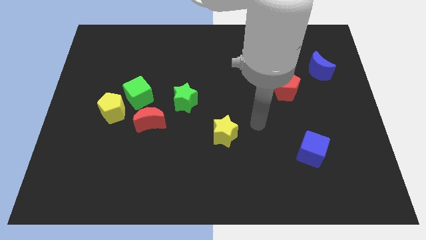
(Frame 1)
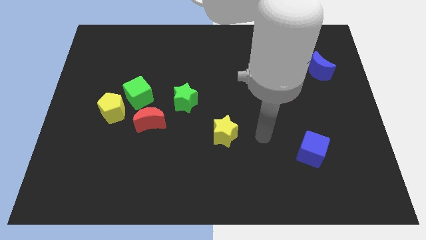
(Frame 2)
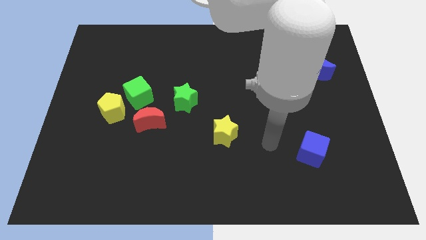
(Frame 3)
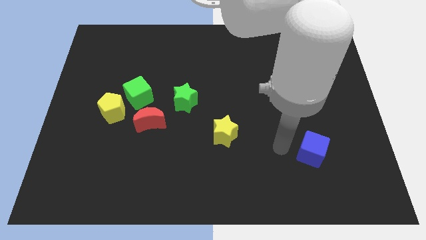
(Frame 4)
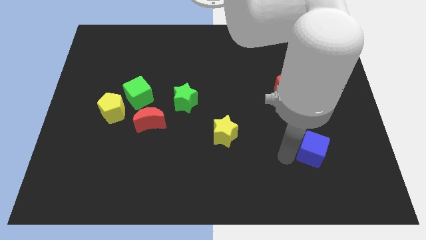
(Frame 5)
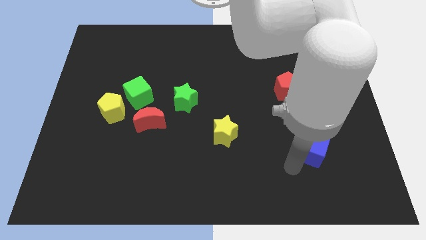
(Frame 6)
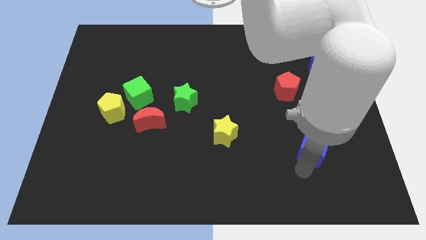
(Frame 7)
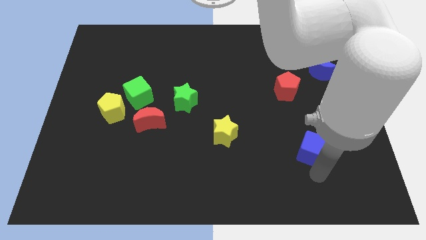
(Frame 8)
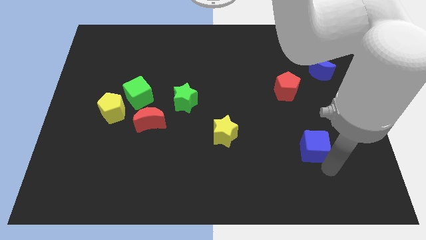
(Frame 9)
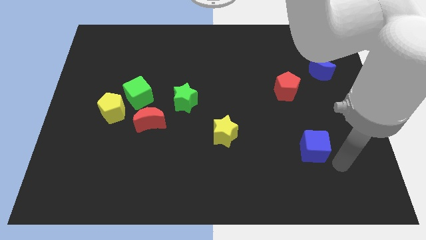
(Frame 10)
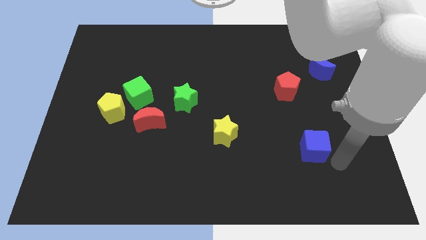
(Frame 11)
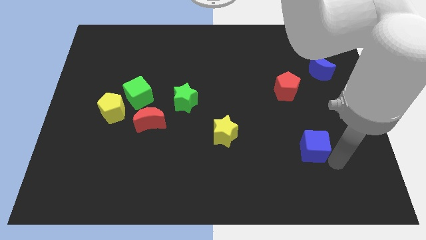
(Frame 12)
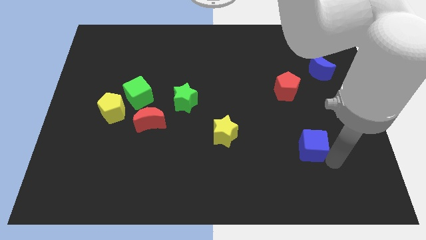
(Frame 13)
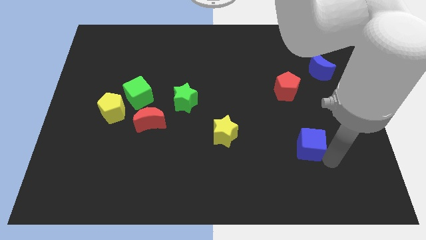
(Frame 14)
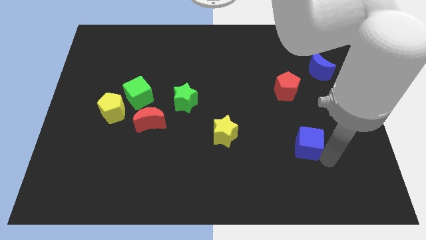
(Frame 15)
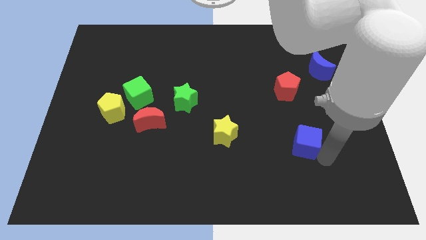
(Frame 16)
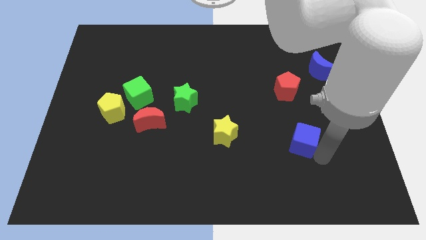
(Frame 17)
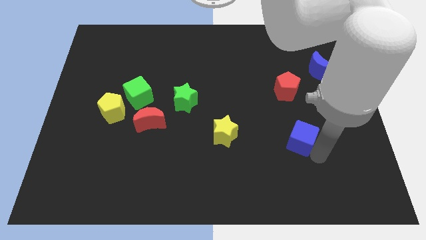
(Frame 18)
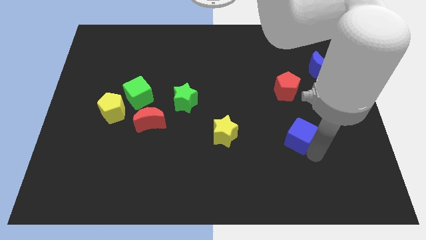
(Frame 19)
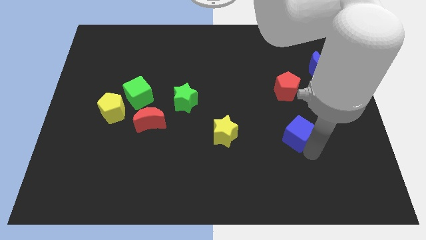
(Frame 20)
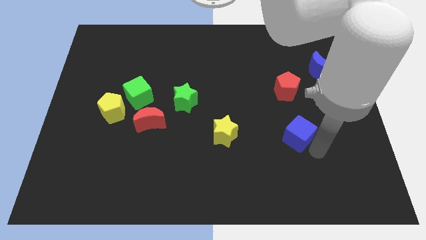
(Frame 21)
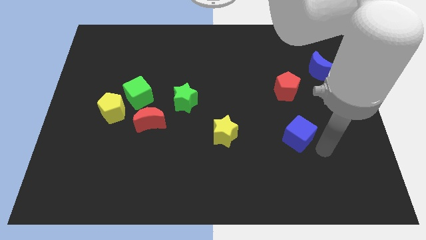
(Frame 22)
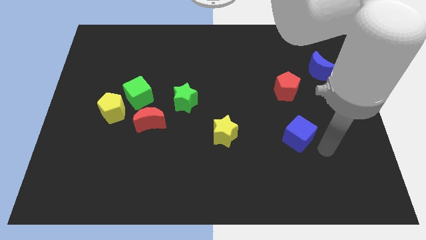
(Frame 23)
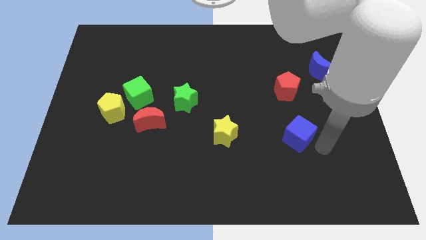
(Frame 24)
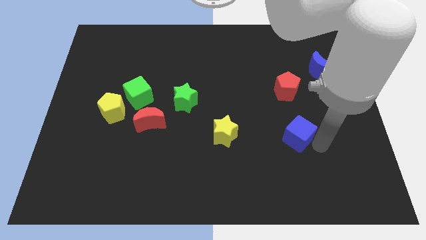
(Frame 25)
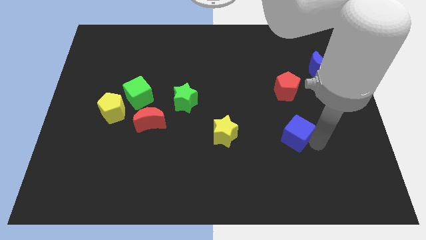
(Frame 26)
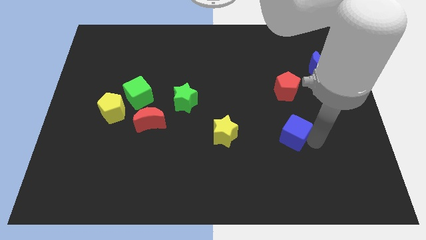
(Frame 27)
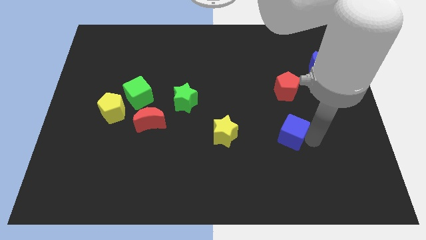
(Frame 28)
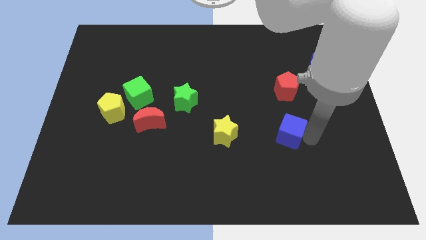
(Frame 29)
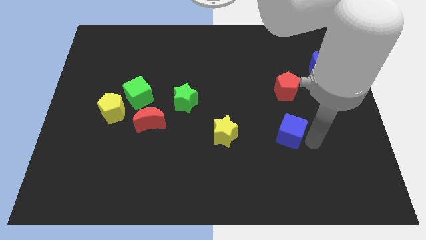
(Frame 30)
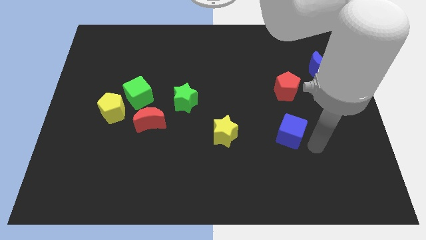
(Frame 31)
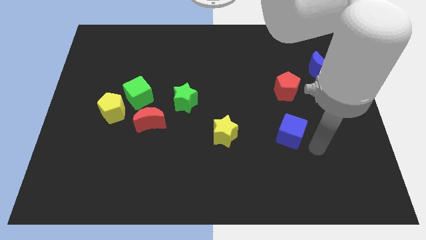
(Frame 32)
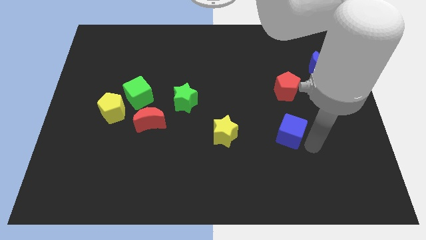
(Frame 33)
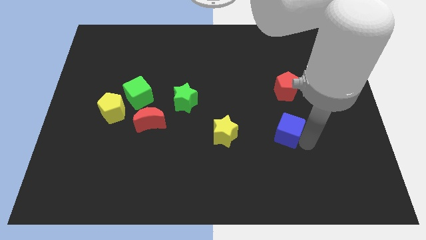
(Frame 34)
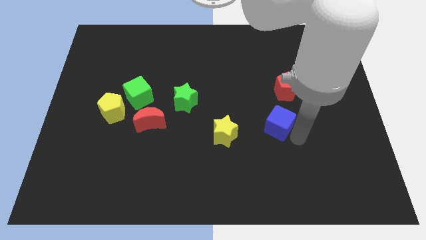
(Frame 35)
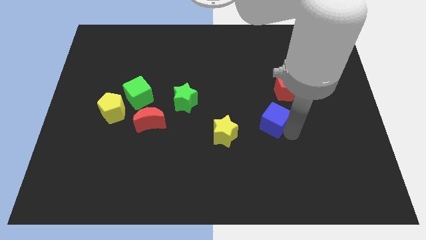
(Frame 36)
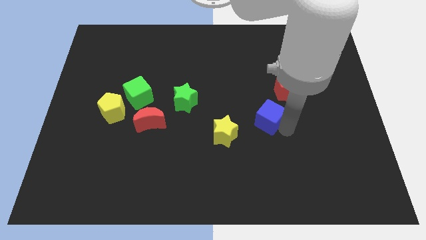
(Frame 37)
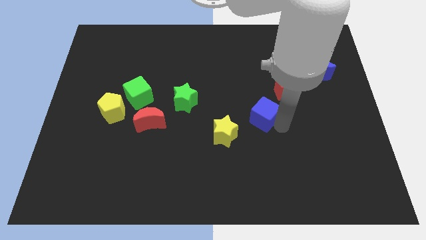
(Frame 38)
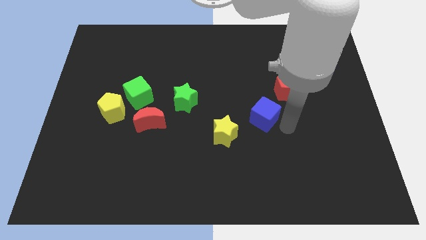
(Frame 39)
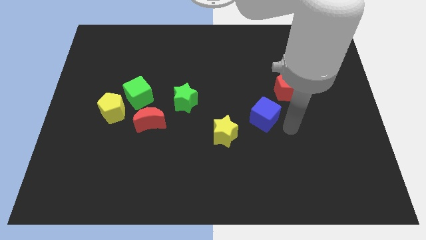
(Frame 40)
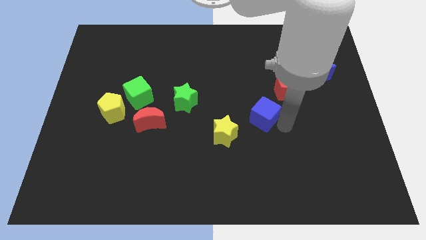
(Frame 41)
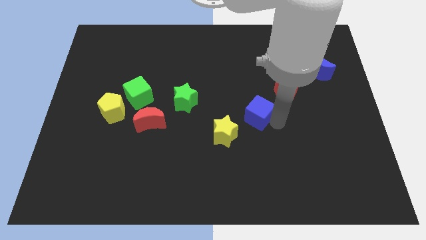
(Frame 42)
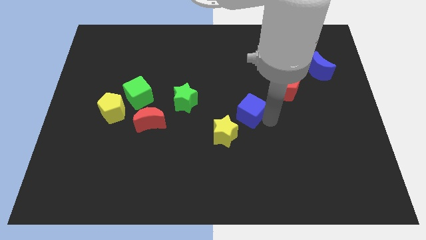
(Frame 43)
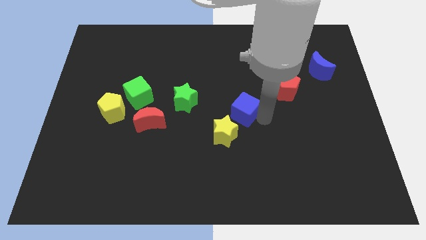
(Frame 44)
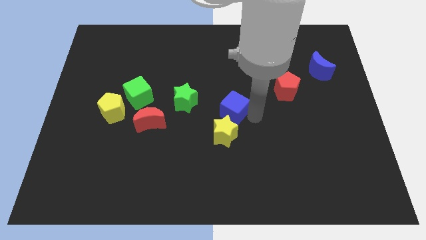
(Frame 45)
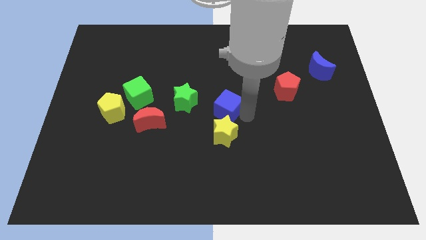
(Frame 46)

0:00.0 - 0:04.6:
slide the blue cube up and left

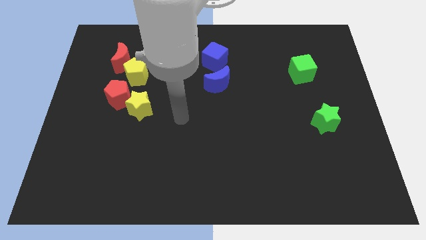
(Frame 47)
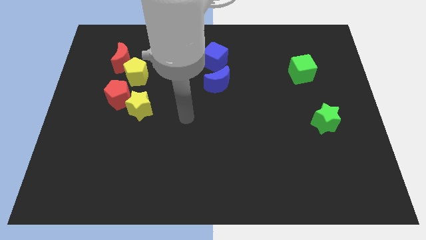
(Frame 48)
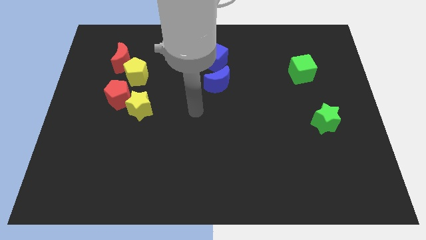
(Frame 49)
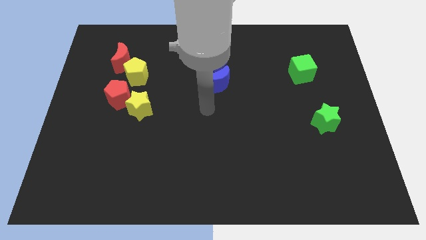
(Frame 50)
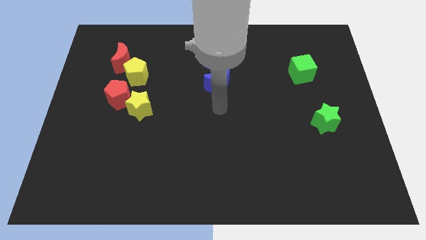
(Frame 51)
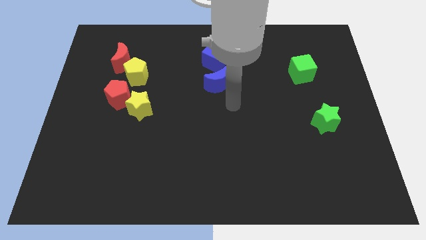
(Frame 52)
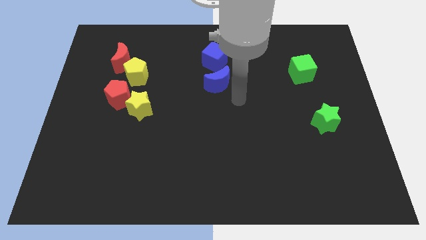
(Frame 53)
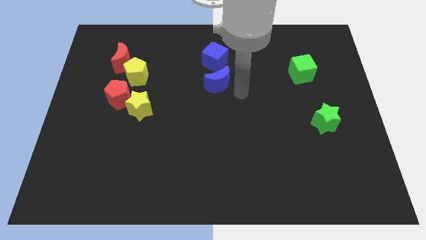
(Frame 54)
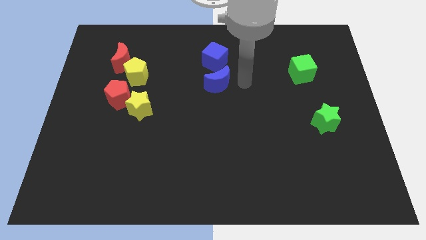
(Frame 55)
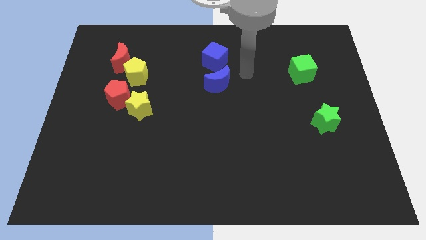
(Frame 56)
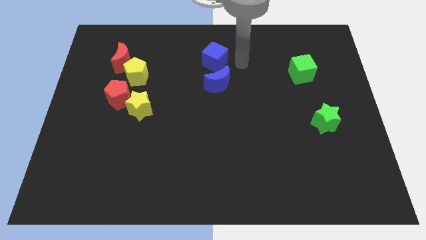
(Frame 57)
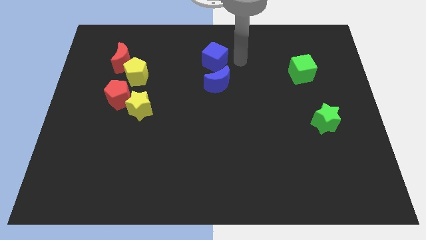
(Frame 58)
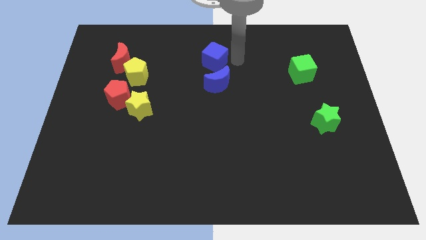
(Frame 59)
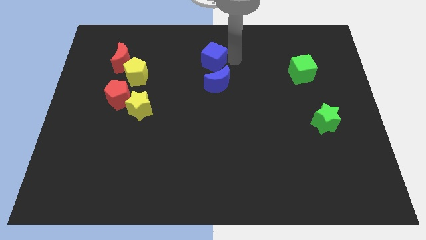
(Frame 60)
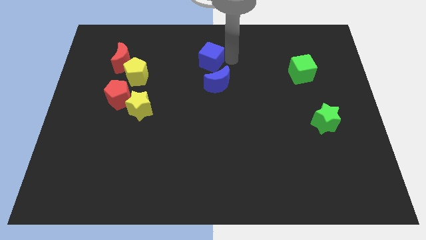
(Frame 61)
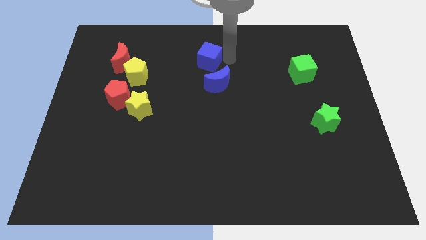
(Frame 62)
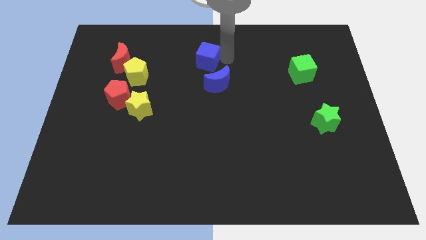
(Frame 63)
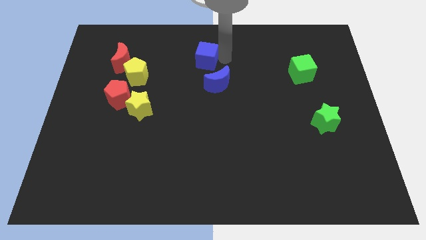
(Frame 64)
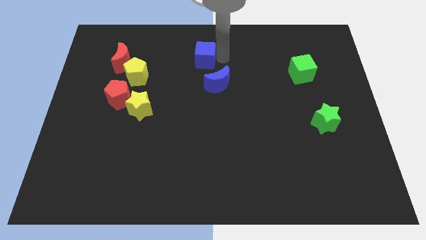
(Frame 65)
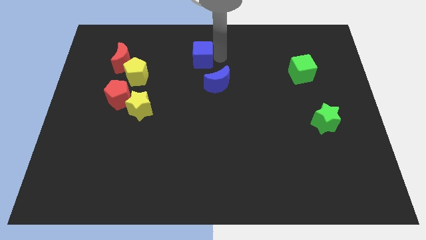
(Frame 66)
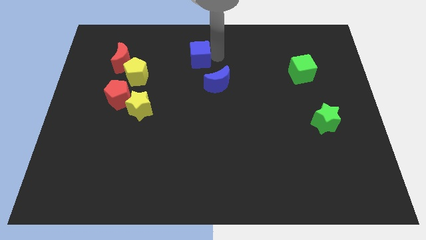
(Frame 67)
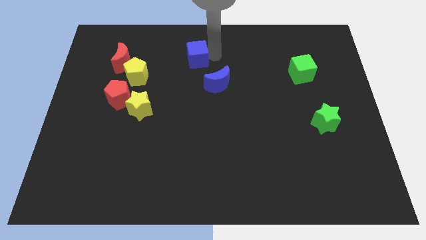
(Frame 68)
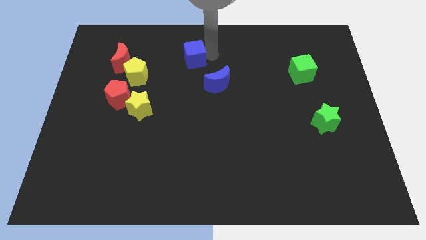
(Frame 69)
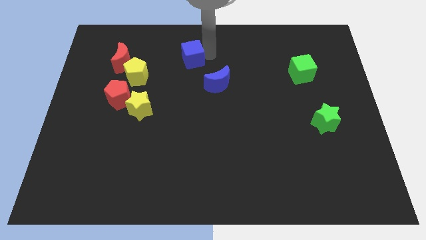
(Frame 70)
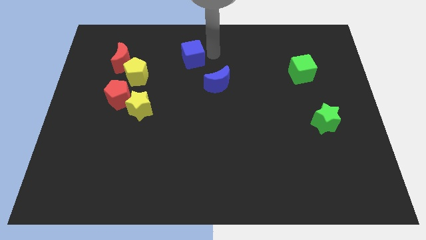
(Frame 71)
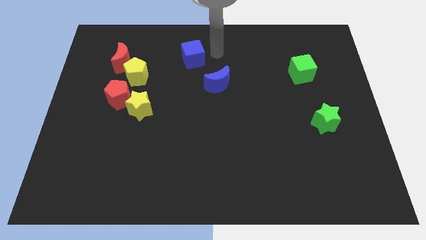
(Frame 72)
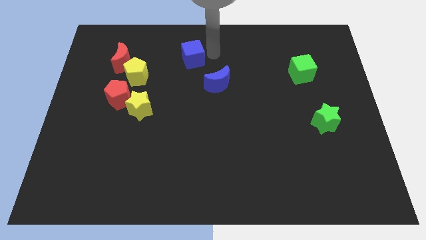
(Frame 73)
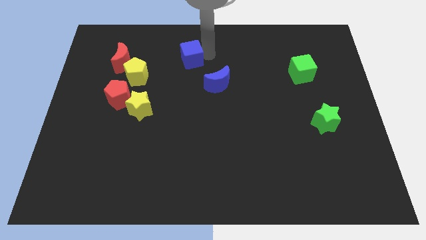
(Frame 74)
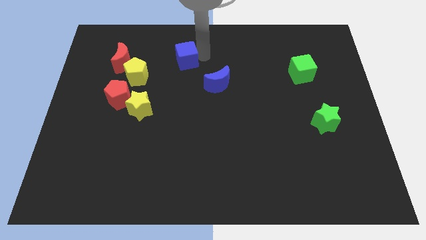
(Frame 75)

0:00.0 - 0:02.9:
move the blue cube a little left
